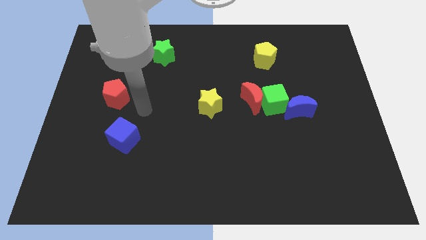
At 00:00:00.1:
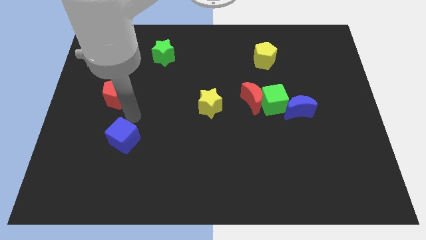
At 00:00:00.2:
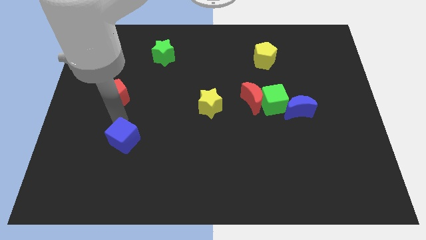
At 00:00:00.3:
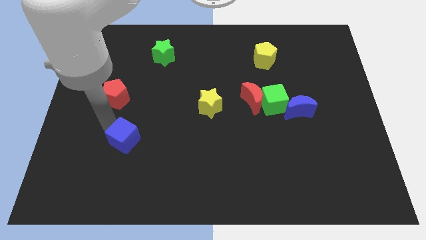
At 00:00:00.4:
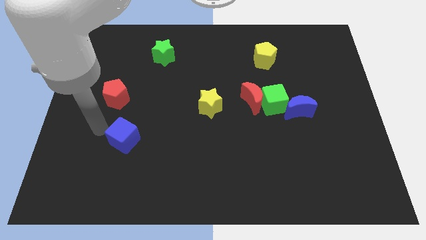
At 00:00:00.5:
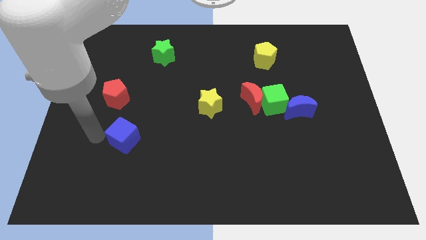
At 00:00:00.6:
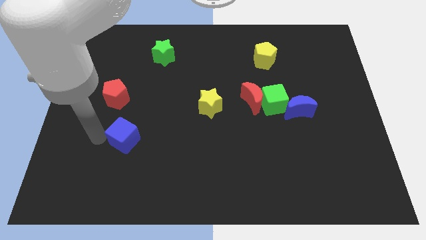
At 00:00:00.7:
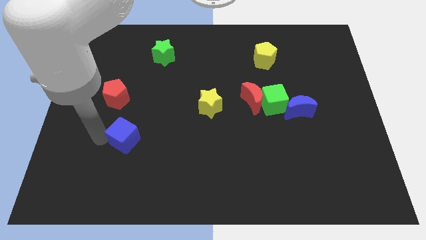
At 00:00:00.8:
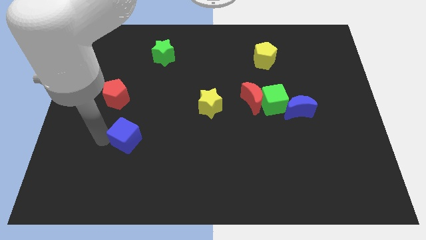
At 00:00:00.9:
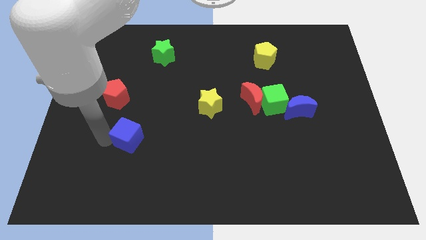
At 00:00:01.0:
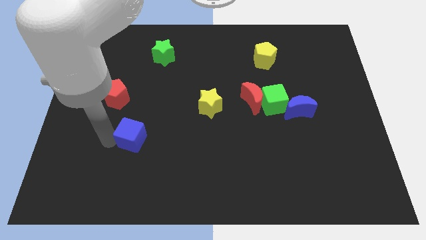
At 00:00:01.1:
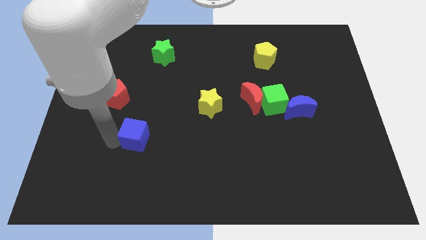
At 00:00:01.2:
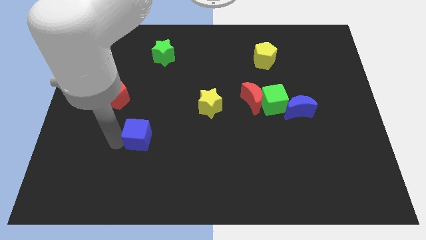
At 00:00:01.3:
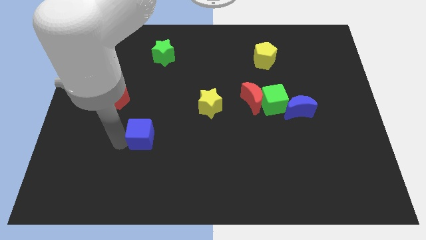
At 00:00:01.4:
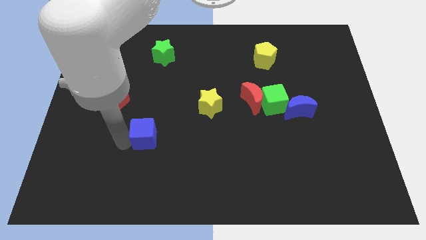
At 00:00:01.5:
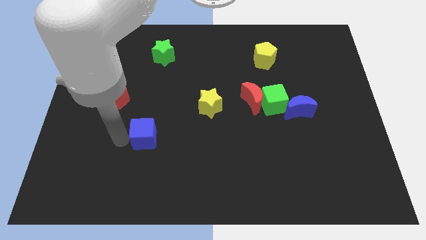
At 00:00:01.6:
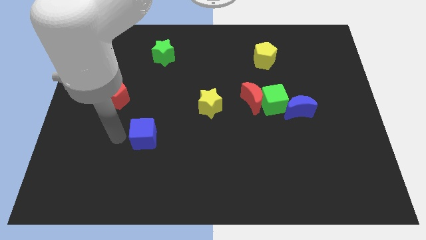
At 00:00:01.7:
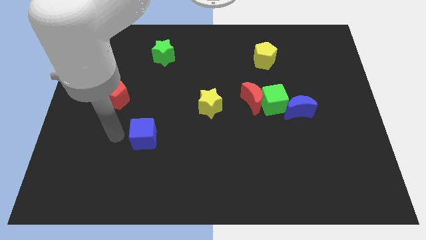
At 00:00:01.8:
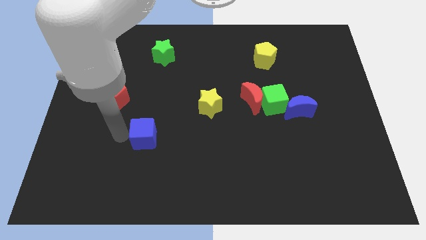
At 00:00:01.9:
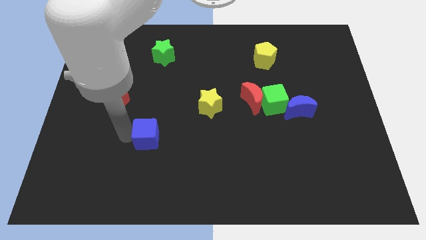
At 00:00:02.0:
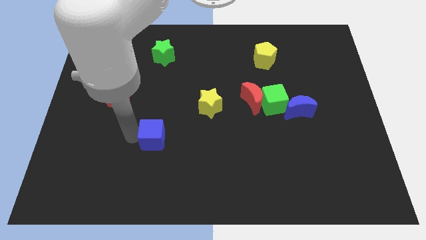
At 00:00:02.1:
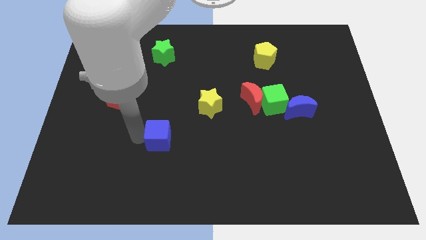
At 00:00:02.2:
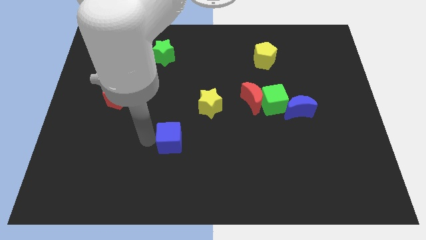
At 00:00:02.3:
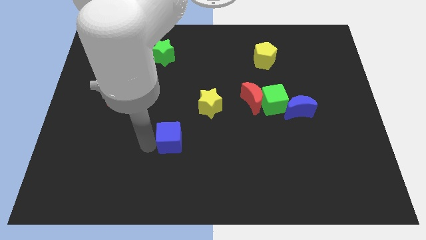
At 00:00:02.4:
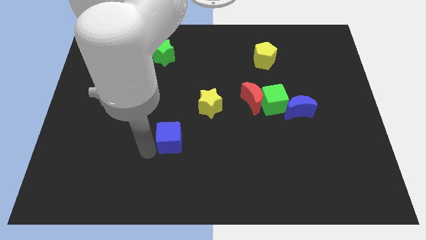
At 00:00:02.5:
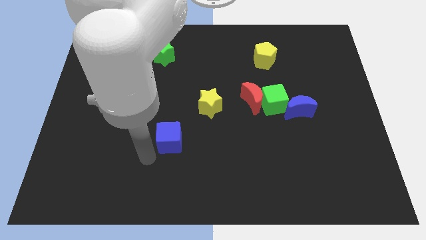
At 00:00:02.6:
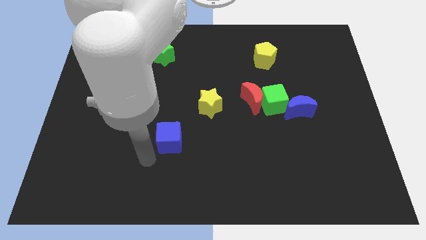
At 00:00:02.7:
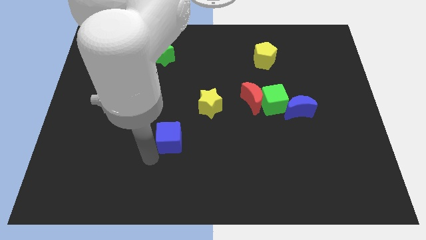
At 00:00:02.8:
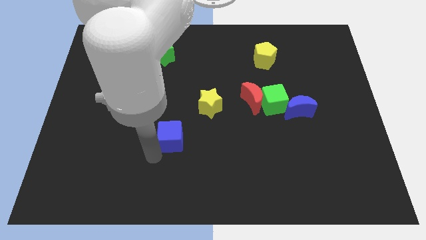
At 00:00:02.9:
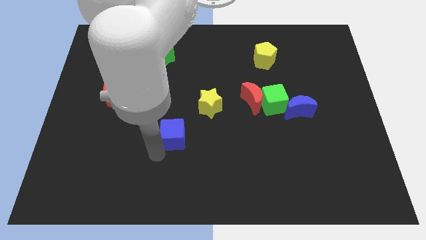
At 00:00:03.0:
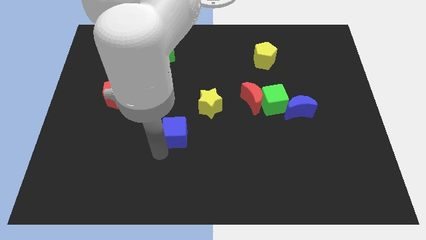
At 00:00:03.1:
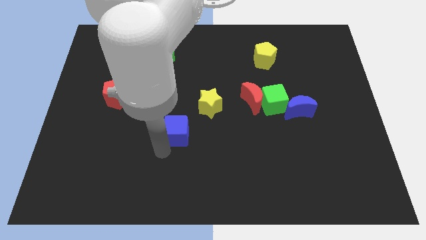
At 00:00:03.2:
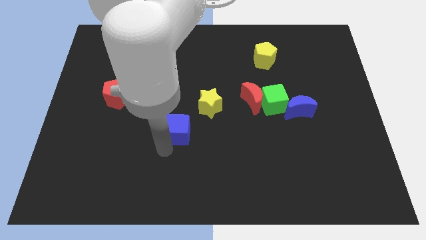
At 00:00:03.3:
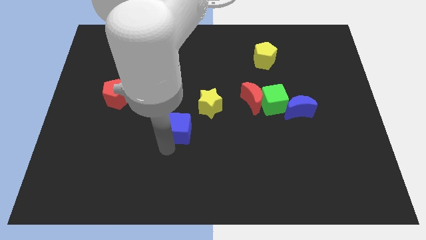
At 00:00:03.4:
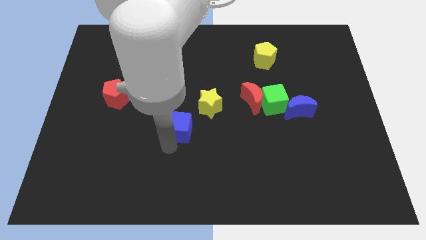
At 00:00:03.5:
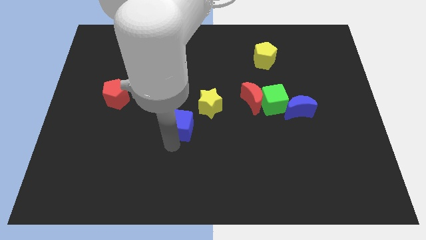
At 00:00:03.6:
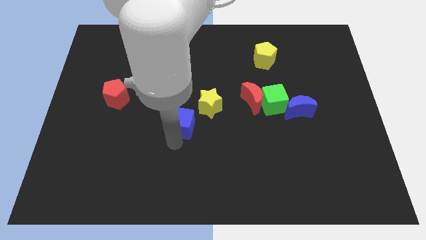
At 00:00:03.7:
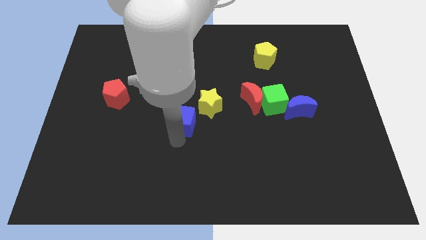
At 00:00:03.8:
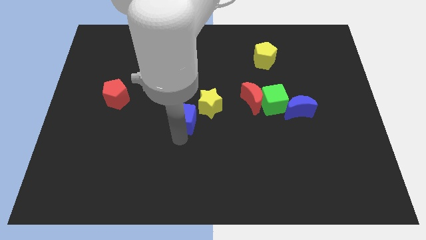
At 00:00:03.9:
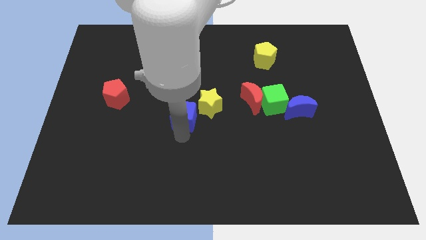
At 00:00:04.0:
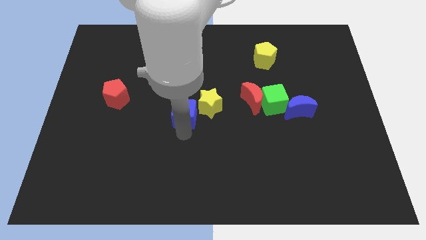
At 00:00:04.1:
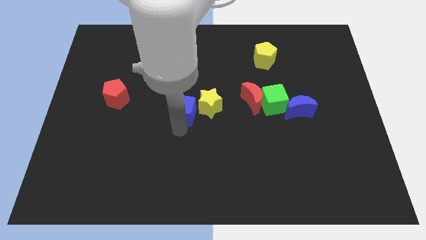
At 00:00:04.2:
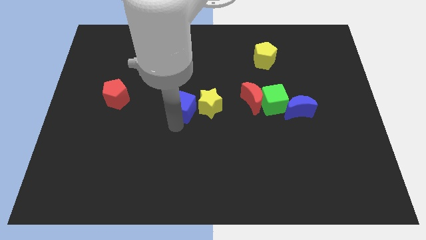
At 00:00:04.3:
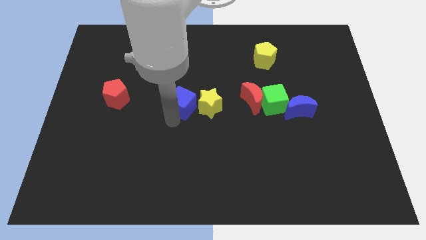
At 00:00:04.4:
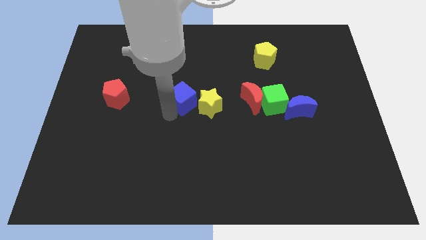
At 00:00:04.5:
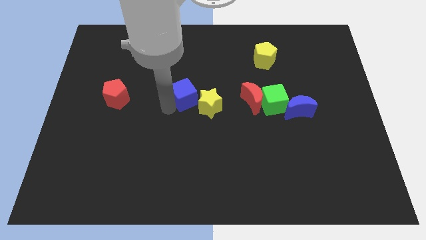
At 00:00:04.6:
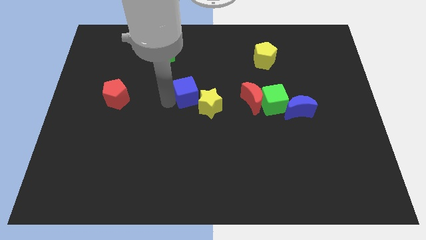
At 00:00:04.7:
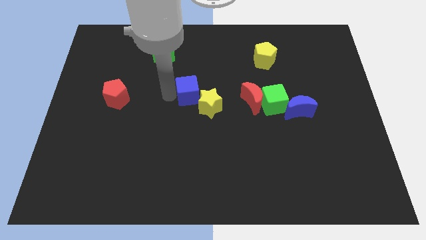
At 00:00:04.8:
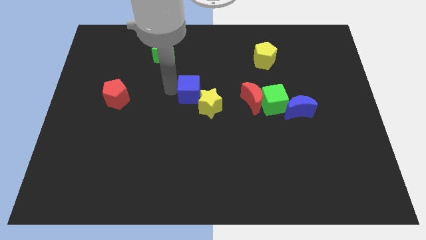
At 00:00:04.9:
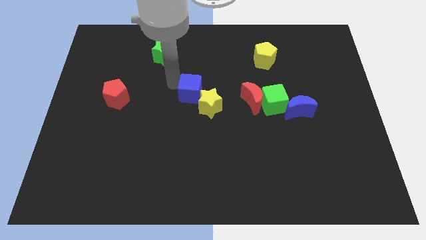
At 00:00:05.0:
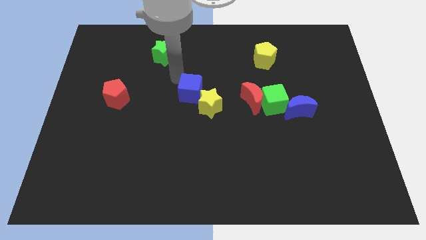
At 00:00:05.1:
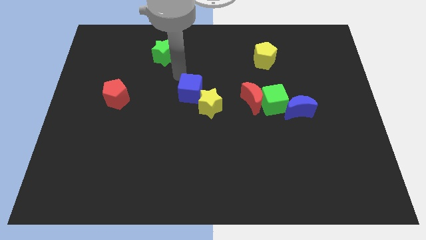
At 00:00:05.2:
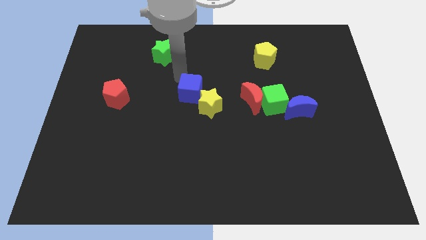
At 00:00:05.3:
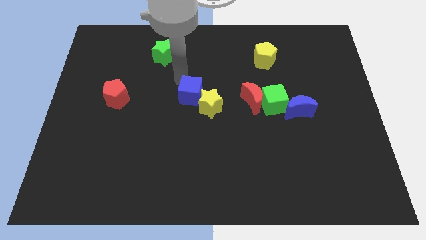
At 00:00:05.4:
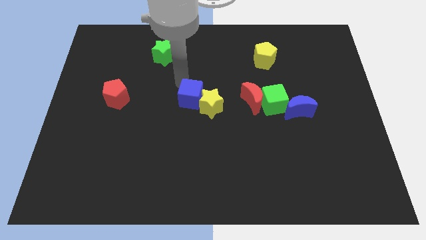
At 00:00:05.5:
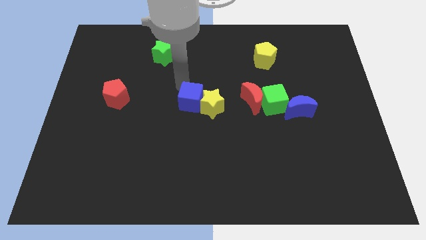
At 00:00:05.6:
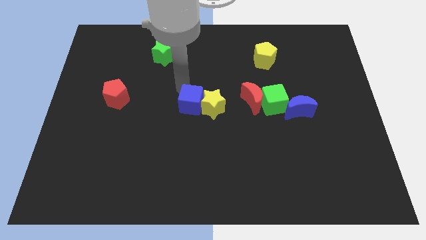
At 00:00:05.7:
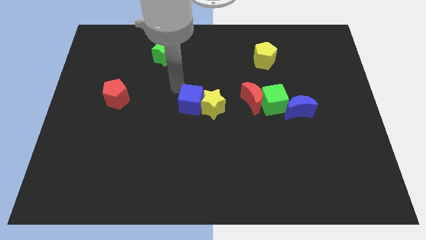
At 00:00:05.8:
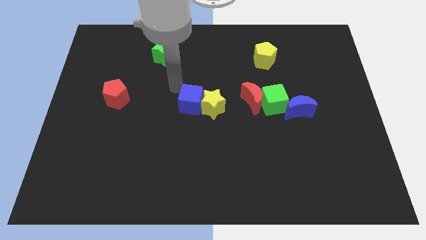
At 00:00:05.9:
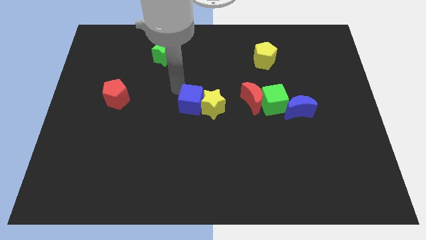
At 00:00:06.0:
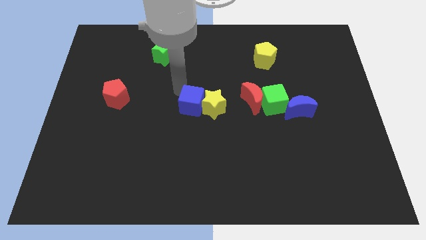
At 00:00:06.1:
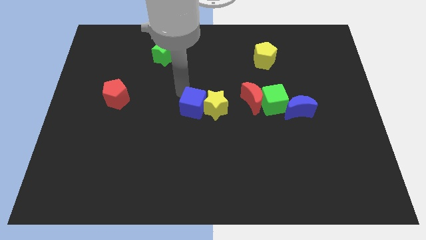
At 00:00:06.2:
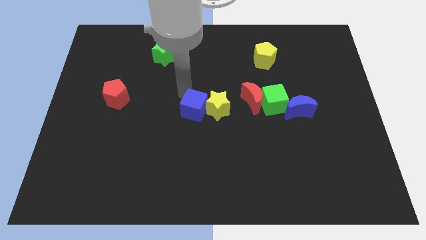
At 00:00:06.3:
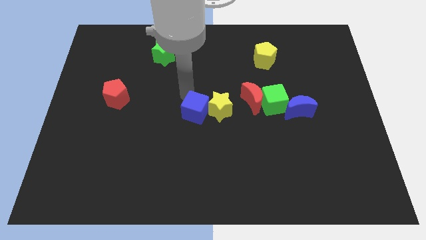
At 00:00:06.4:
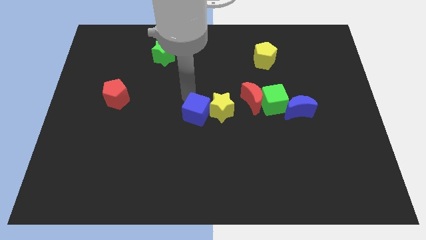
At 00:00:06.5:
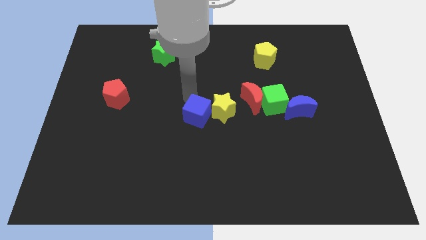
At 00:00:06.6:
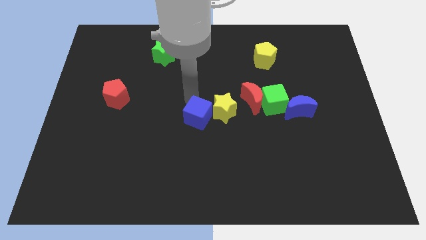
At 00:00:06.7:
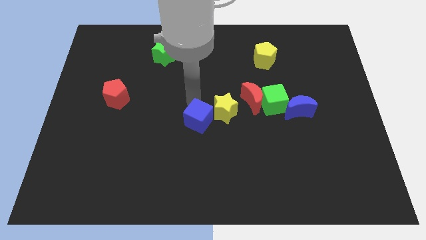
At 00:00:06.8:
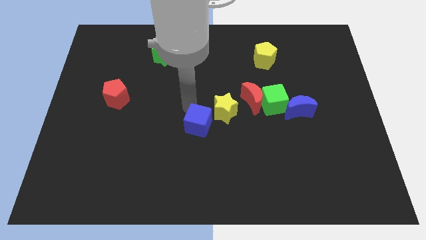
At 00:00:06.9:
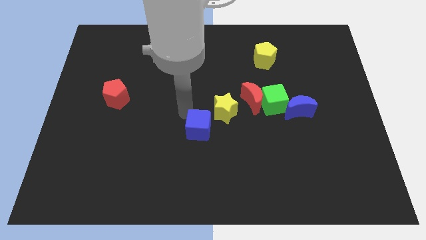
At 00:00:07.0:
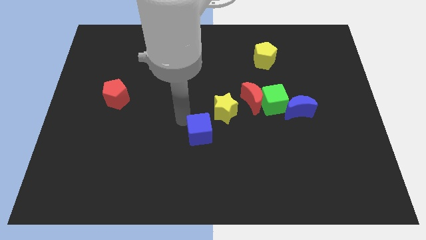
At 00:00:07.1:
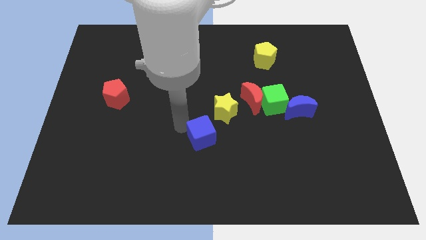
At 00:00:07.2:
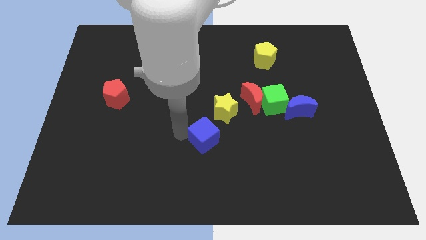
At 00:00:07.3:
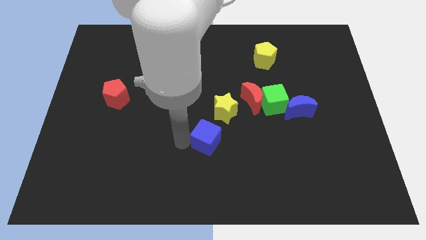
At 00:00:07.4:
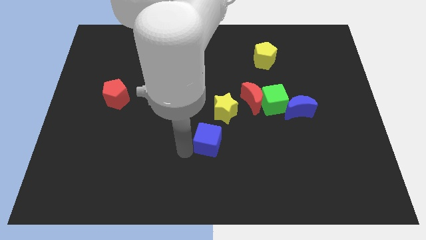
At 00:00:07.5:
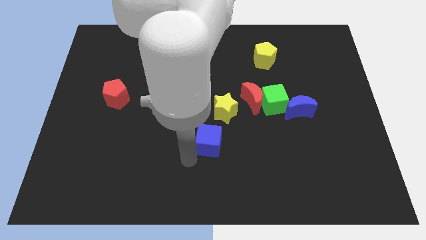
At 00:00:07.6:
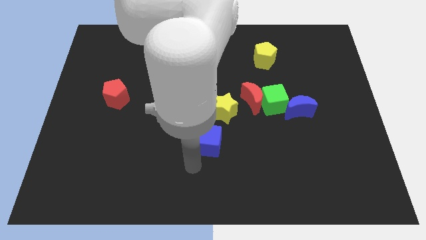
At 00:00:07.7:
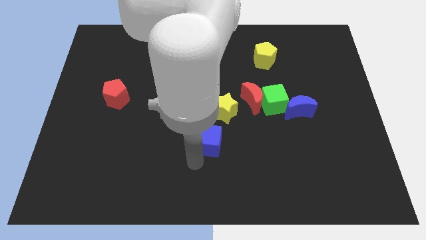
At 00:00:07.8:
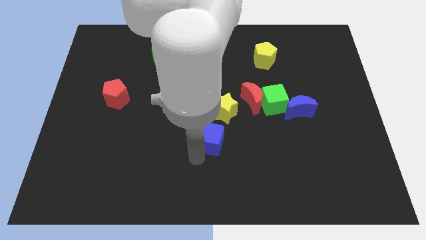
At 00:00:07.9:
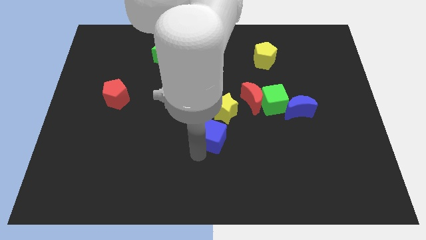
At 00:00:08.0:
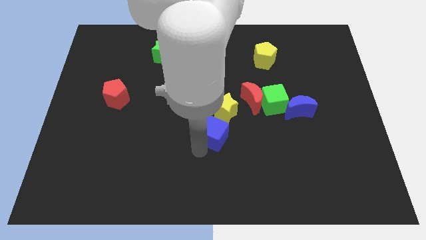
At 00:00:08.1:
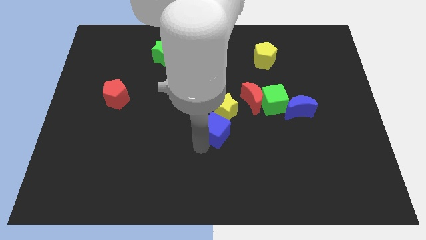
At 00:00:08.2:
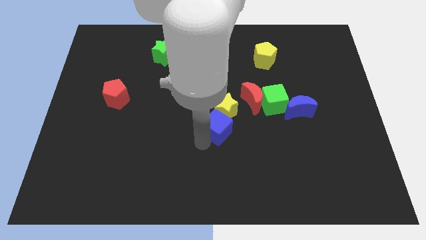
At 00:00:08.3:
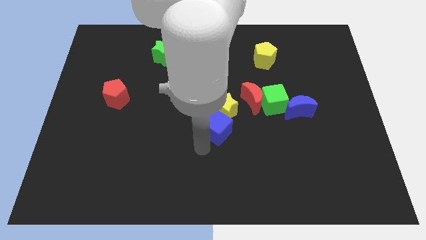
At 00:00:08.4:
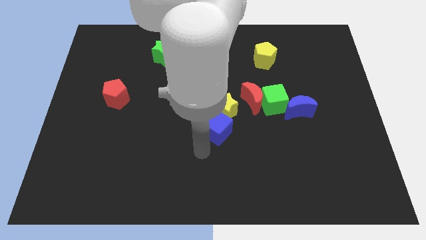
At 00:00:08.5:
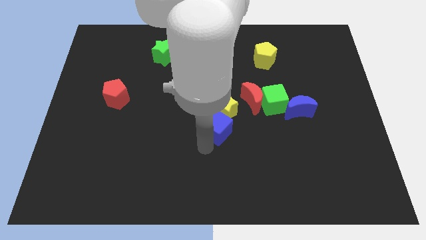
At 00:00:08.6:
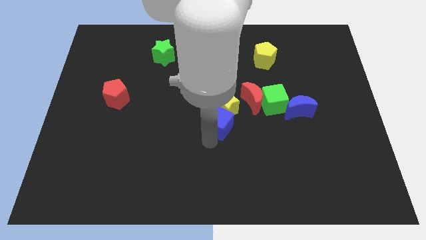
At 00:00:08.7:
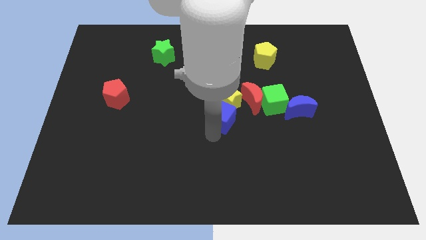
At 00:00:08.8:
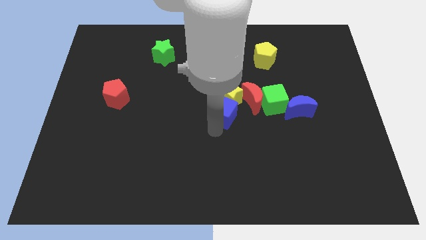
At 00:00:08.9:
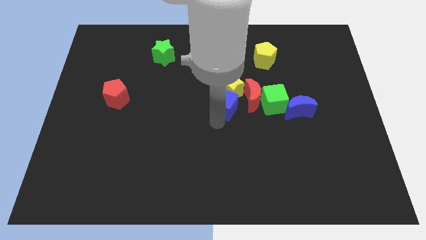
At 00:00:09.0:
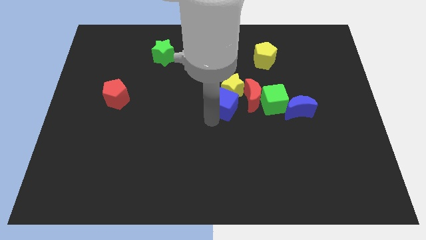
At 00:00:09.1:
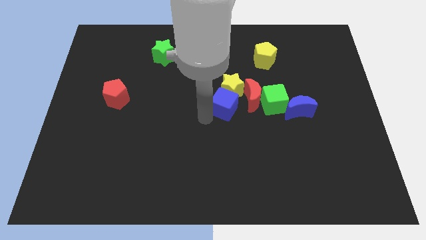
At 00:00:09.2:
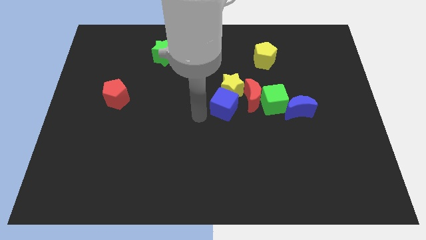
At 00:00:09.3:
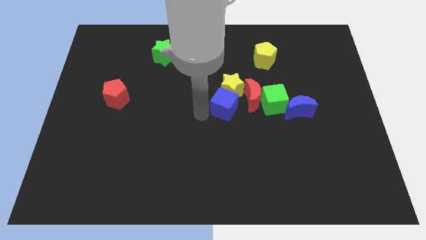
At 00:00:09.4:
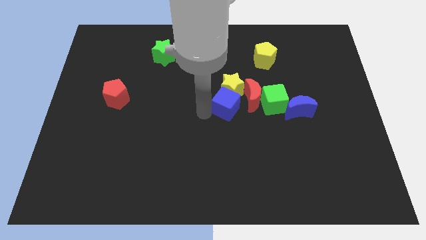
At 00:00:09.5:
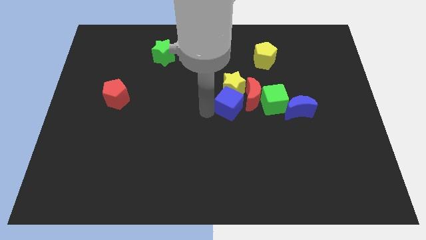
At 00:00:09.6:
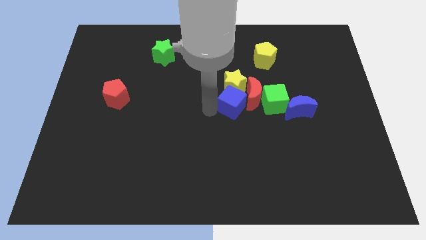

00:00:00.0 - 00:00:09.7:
put the blue cube next to the red moon
